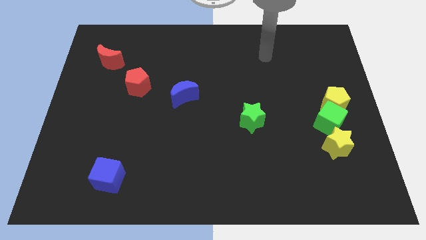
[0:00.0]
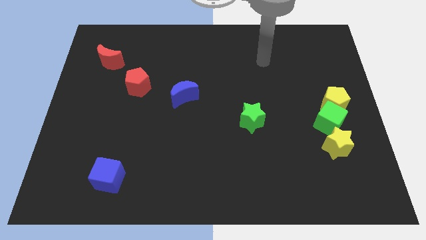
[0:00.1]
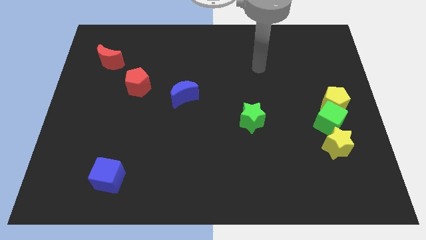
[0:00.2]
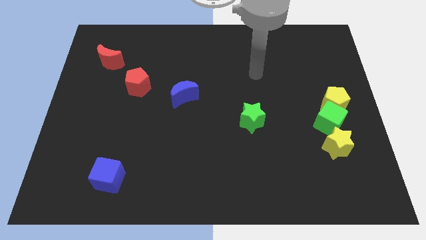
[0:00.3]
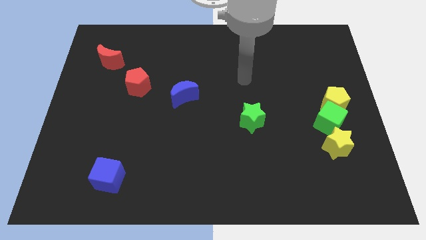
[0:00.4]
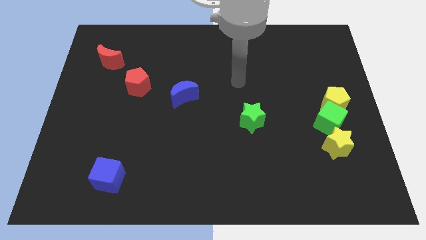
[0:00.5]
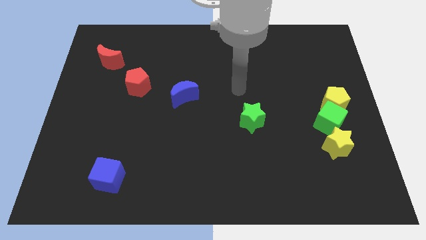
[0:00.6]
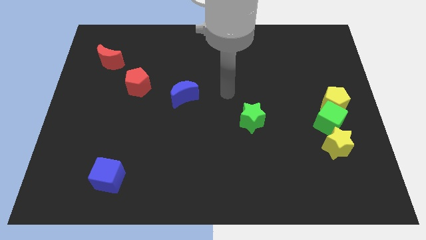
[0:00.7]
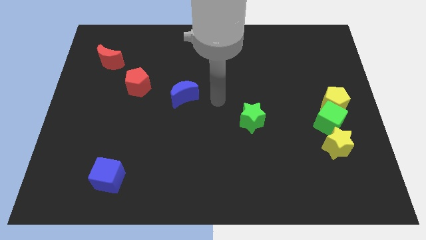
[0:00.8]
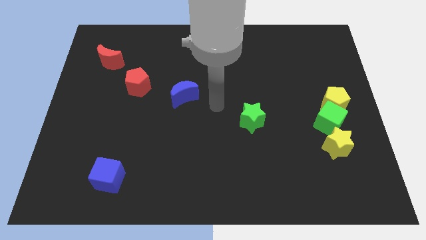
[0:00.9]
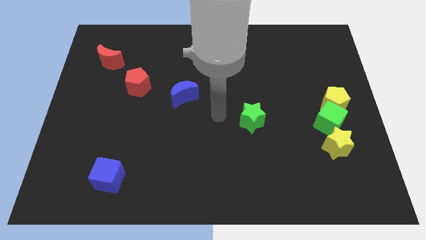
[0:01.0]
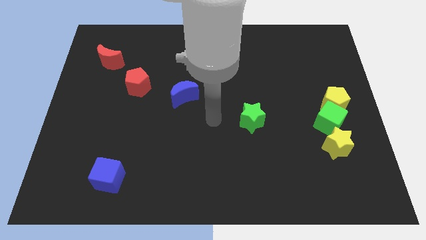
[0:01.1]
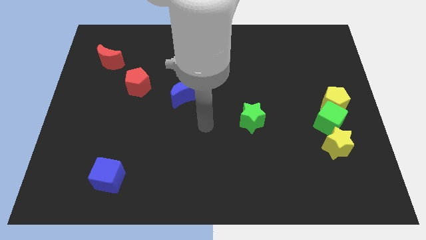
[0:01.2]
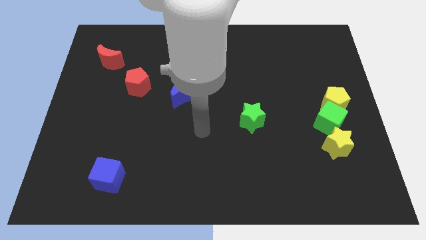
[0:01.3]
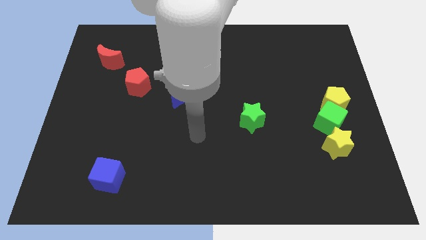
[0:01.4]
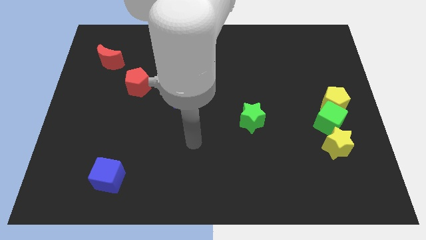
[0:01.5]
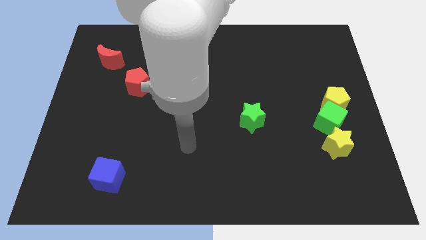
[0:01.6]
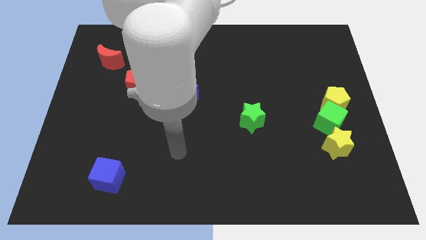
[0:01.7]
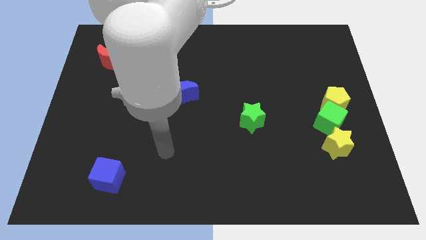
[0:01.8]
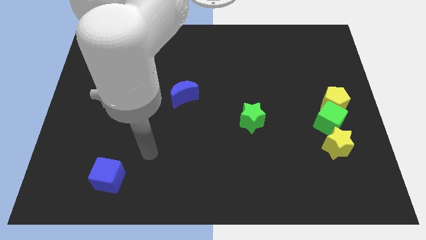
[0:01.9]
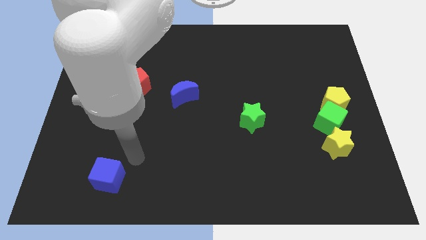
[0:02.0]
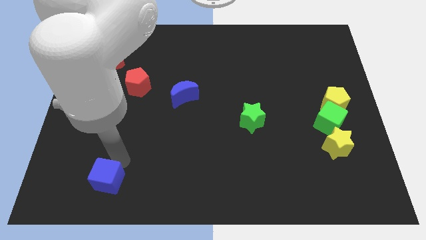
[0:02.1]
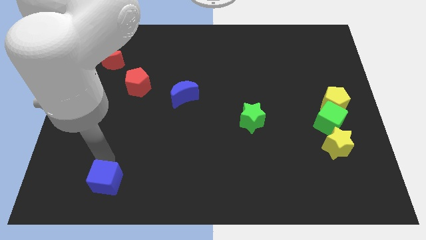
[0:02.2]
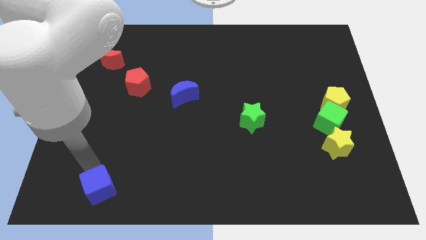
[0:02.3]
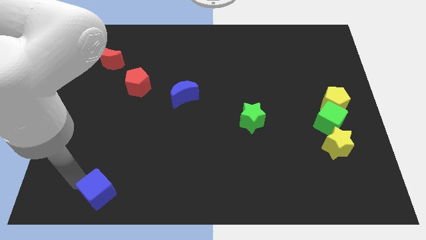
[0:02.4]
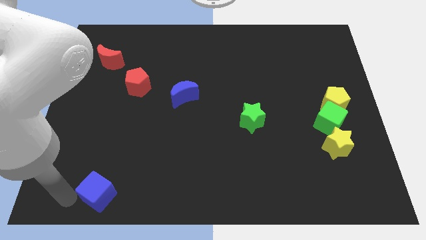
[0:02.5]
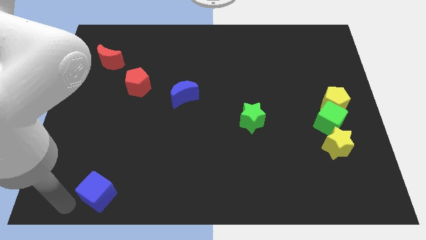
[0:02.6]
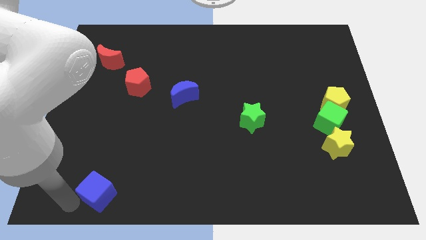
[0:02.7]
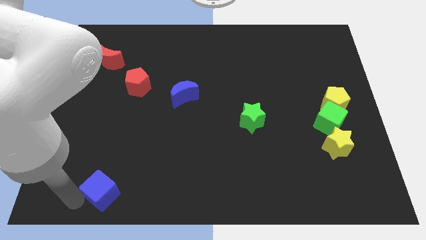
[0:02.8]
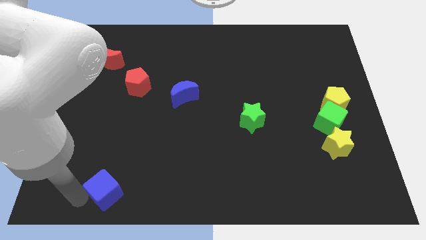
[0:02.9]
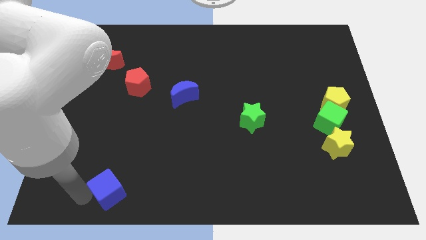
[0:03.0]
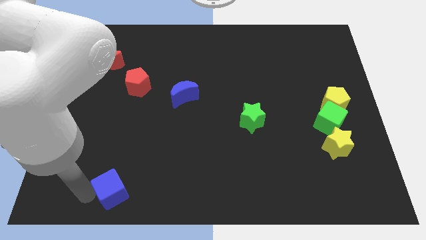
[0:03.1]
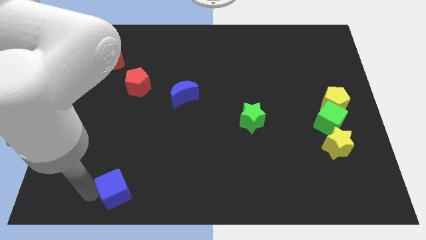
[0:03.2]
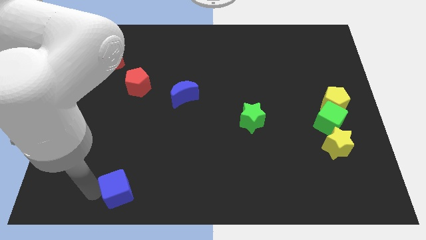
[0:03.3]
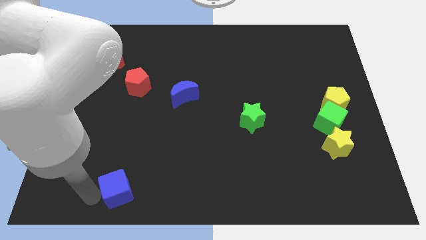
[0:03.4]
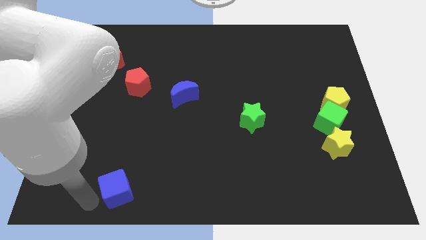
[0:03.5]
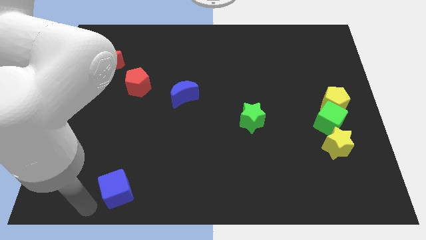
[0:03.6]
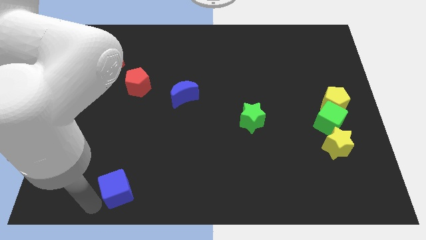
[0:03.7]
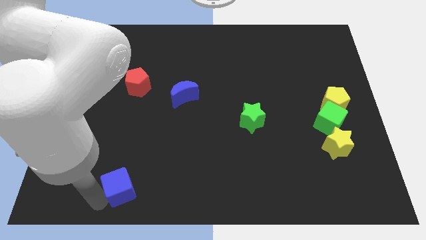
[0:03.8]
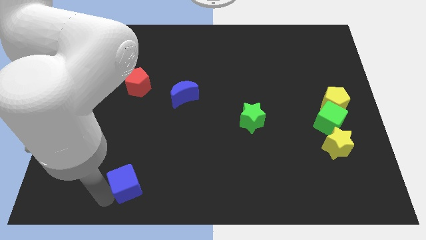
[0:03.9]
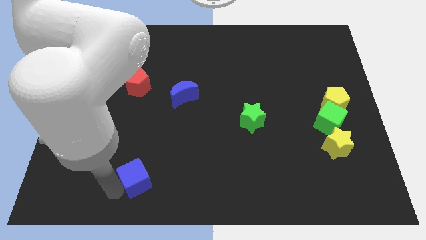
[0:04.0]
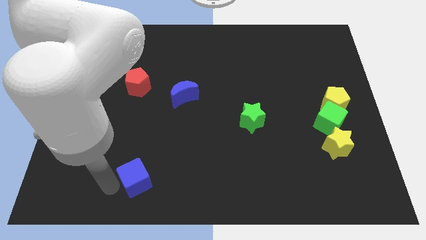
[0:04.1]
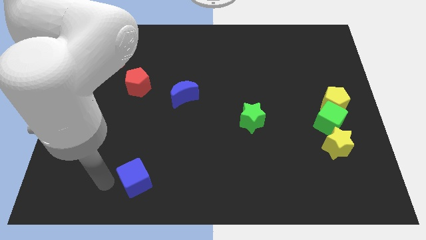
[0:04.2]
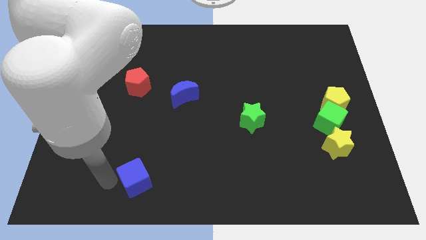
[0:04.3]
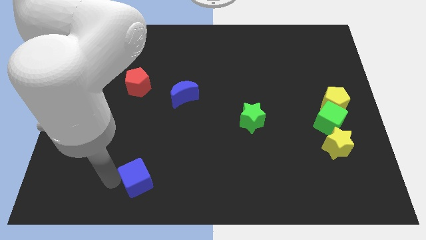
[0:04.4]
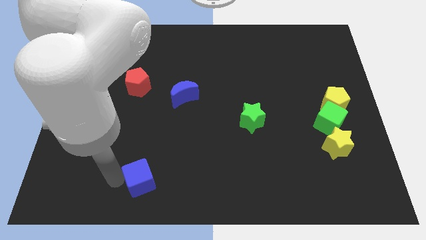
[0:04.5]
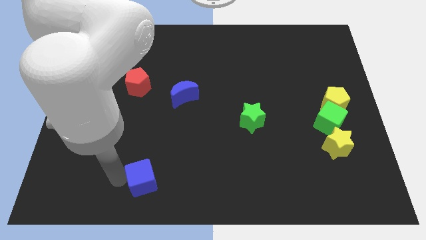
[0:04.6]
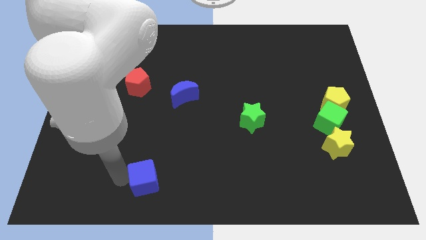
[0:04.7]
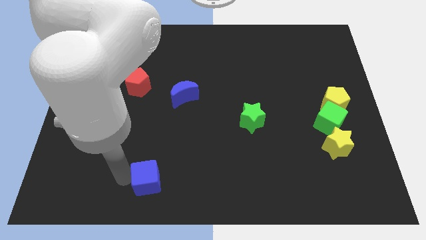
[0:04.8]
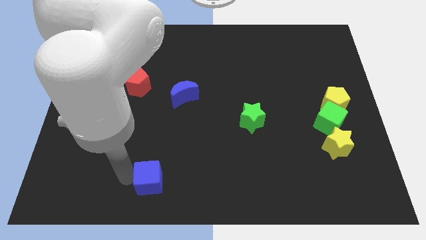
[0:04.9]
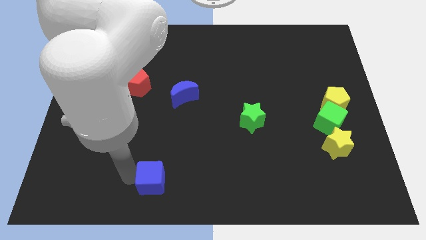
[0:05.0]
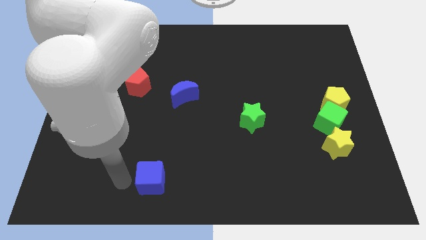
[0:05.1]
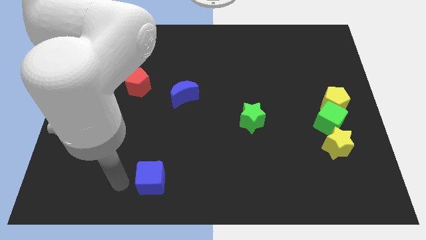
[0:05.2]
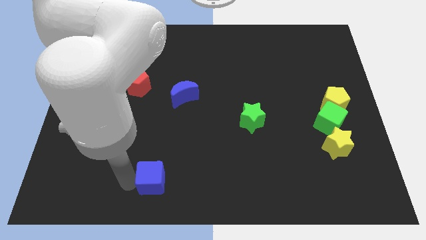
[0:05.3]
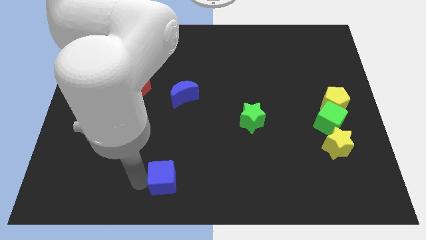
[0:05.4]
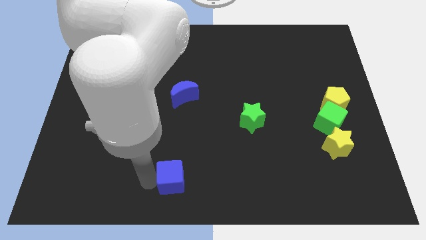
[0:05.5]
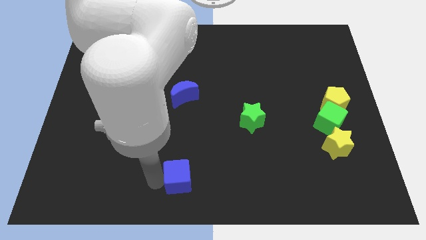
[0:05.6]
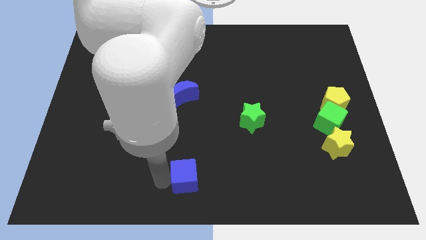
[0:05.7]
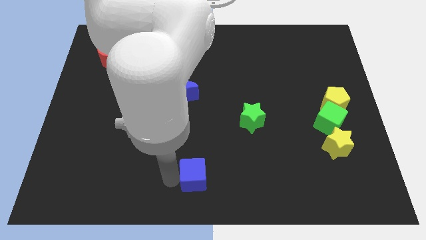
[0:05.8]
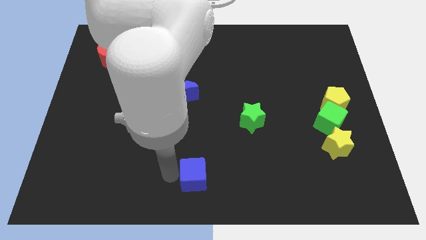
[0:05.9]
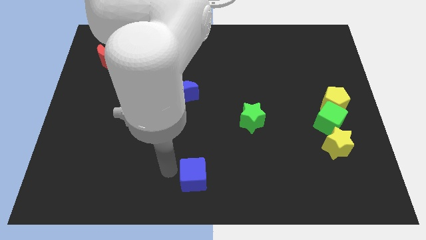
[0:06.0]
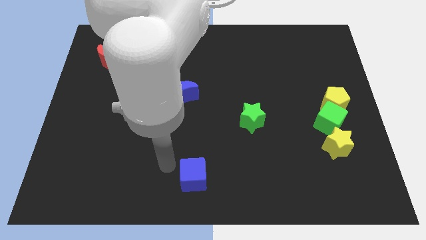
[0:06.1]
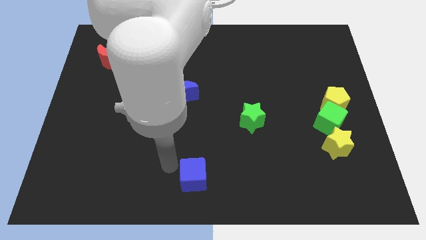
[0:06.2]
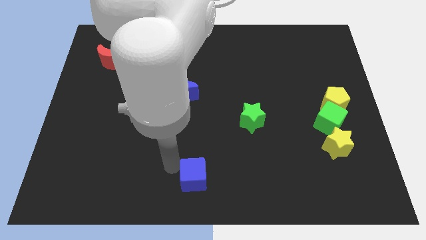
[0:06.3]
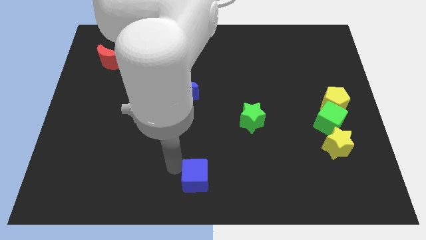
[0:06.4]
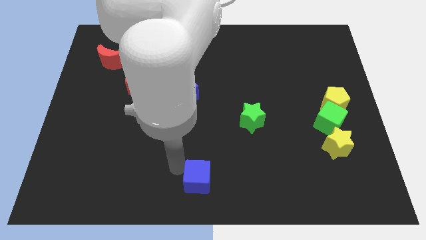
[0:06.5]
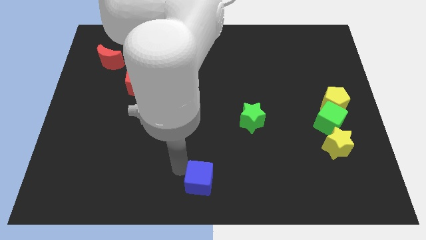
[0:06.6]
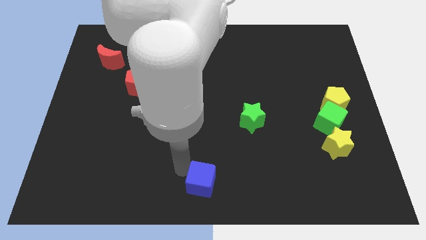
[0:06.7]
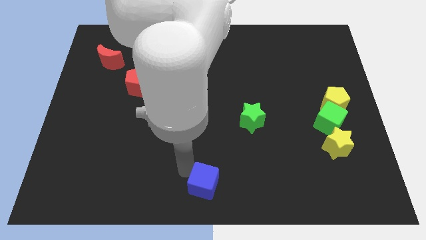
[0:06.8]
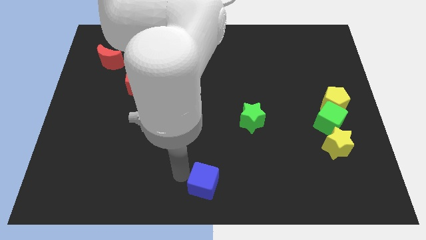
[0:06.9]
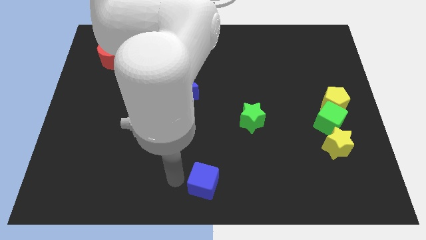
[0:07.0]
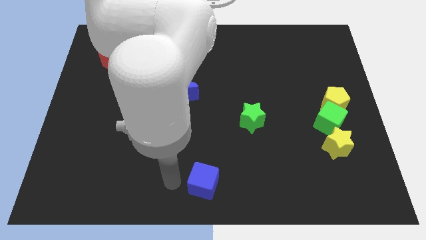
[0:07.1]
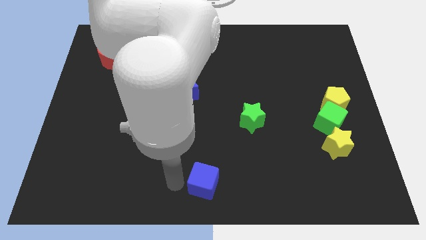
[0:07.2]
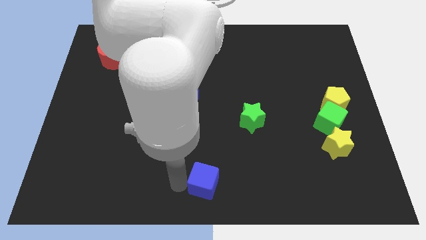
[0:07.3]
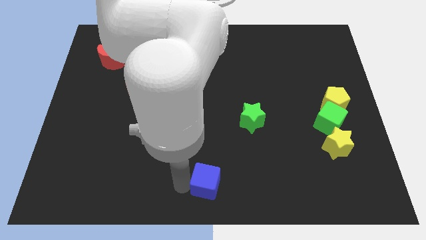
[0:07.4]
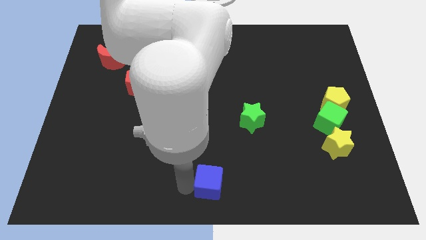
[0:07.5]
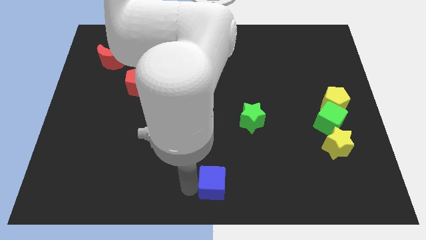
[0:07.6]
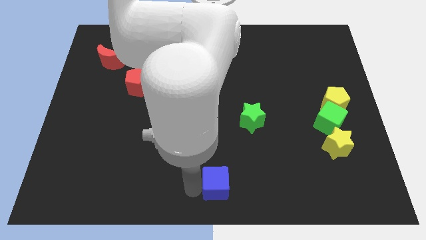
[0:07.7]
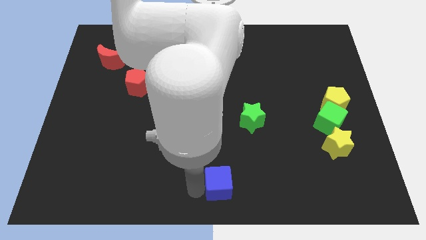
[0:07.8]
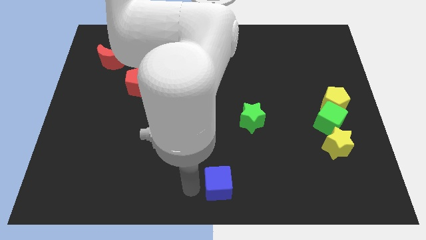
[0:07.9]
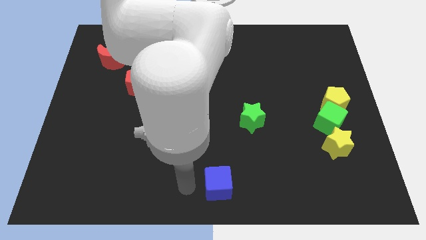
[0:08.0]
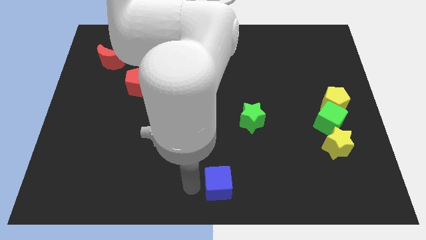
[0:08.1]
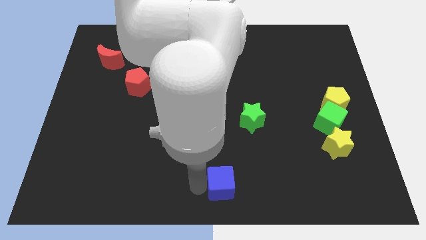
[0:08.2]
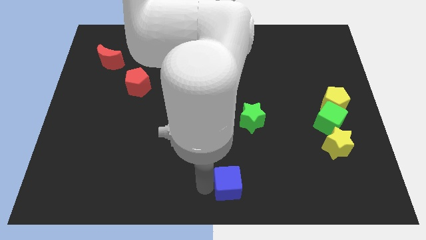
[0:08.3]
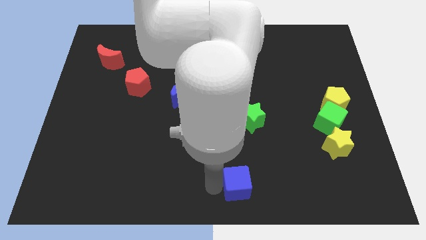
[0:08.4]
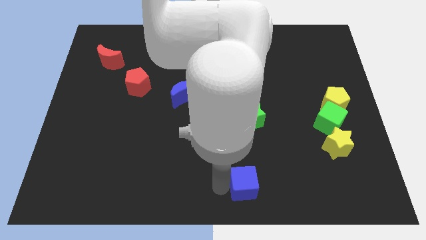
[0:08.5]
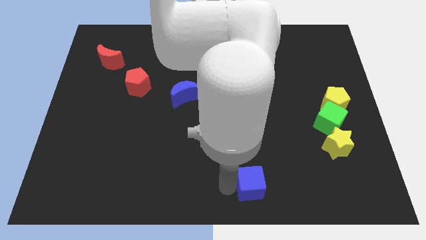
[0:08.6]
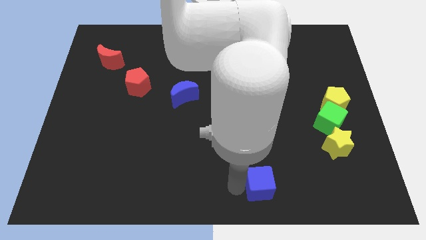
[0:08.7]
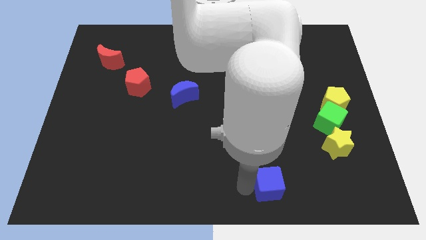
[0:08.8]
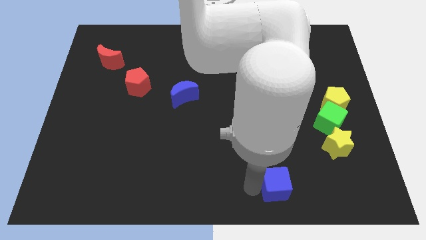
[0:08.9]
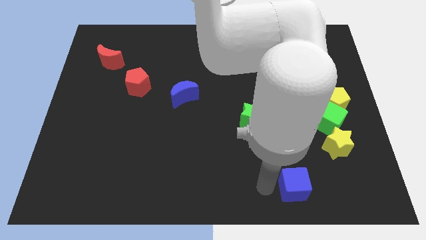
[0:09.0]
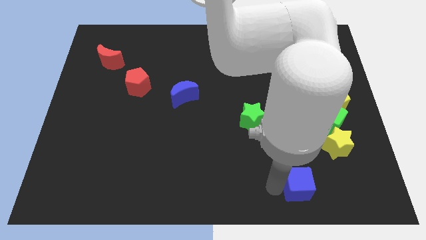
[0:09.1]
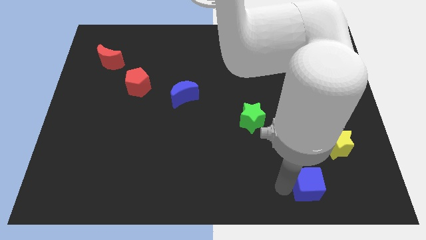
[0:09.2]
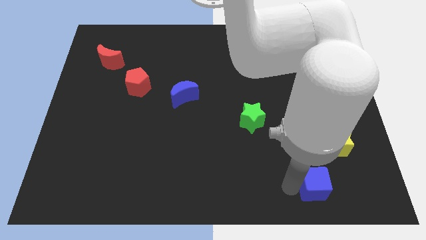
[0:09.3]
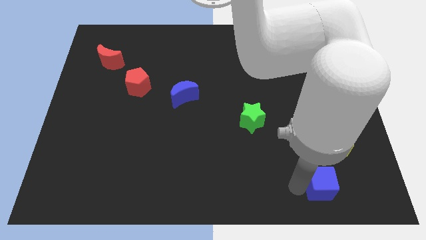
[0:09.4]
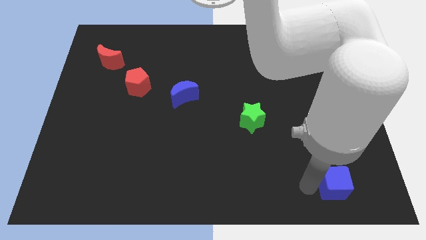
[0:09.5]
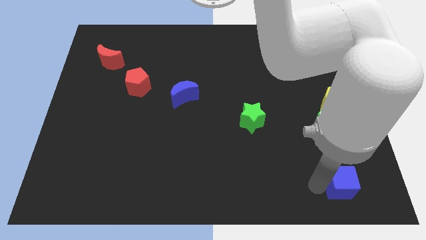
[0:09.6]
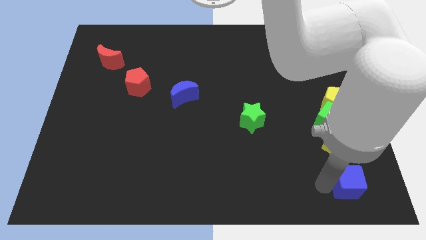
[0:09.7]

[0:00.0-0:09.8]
put the blue cube to the lower right corner
